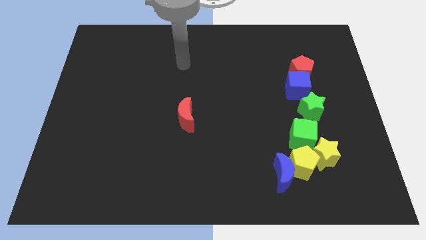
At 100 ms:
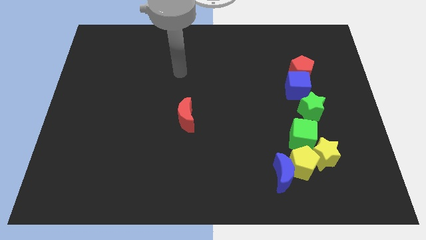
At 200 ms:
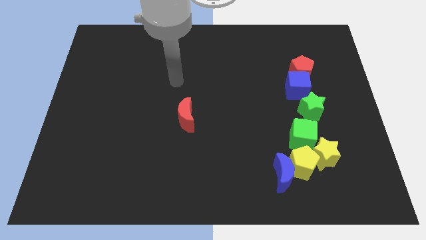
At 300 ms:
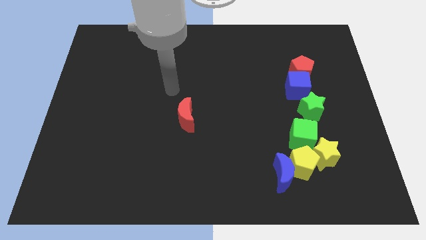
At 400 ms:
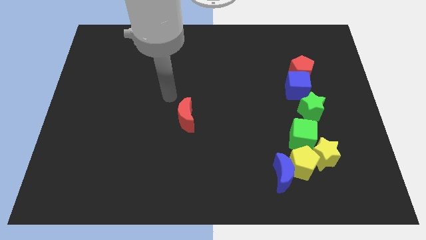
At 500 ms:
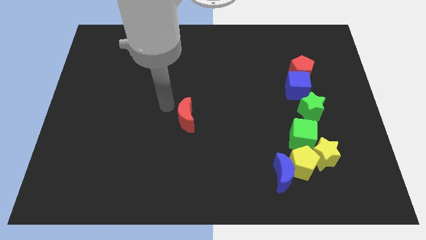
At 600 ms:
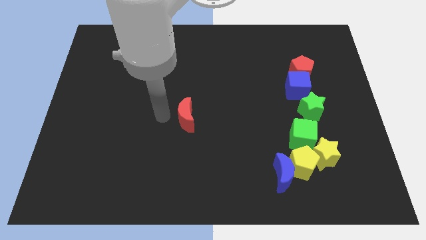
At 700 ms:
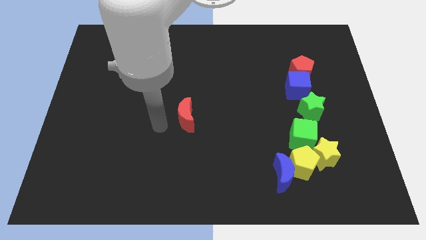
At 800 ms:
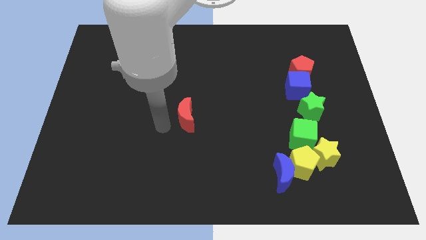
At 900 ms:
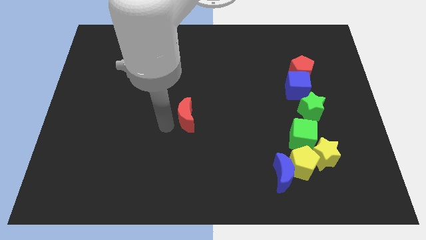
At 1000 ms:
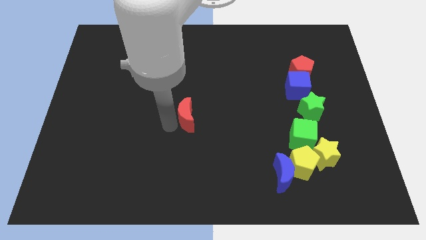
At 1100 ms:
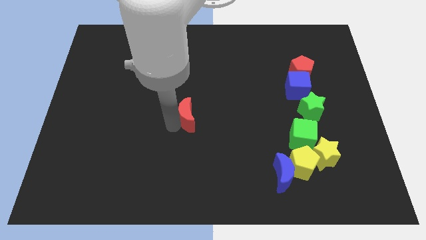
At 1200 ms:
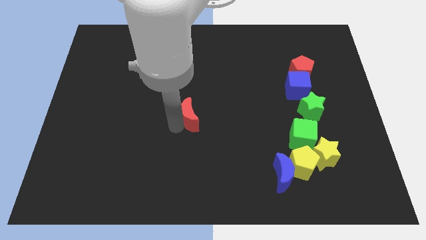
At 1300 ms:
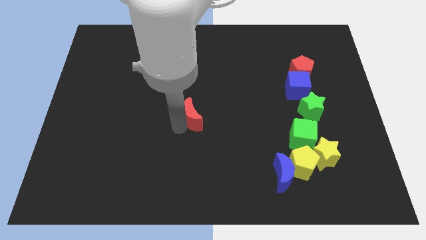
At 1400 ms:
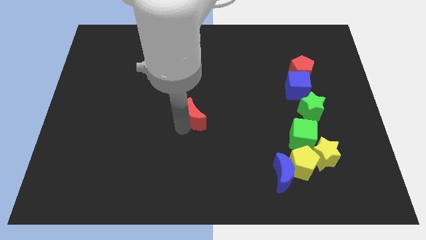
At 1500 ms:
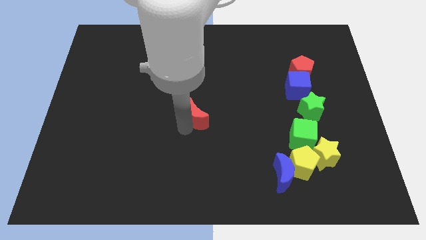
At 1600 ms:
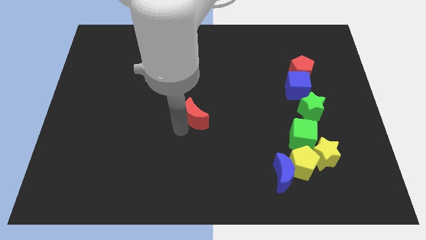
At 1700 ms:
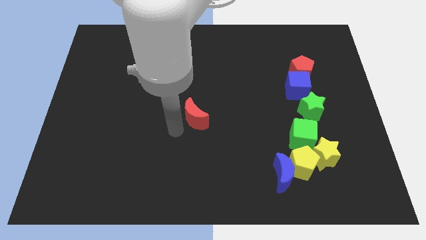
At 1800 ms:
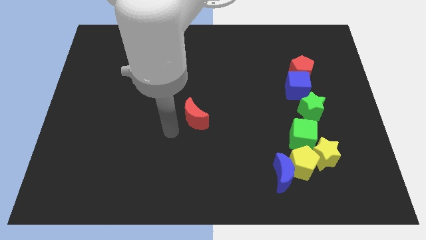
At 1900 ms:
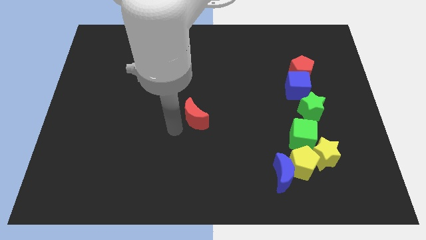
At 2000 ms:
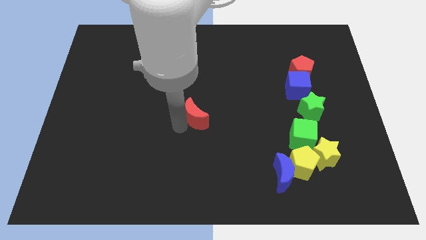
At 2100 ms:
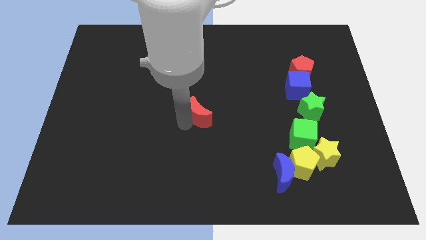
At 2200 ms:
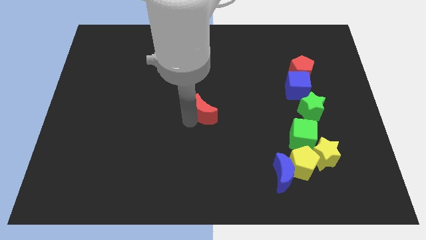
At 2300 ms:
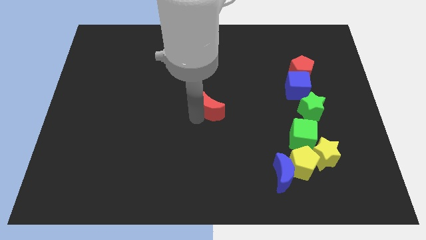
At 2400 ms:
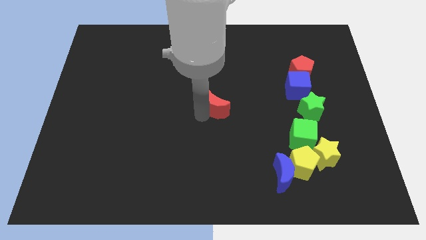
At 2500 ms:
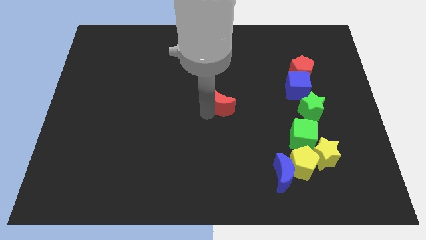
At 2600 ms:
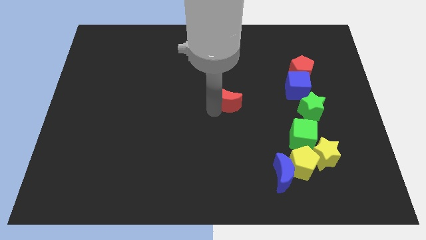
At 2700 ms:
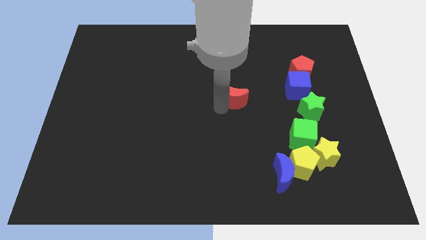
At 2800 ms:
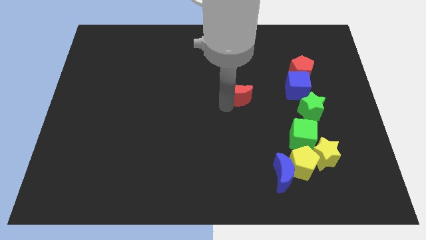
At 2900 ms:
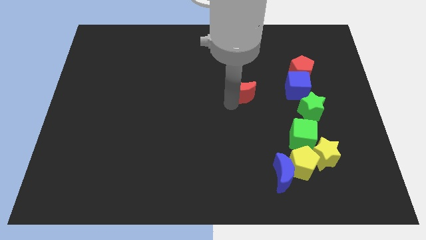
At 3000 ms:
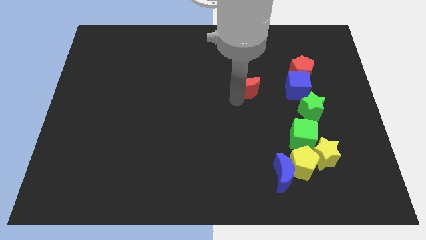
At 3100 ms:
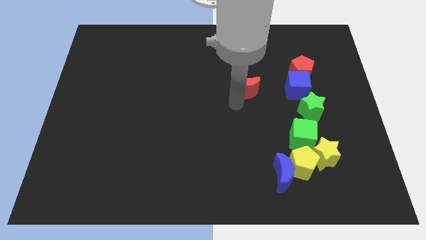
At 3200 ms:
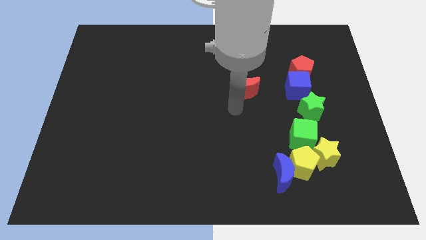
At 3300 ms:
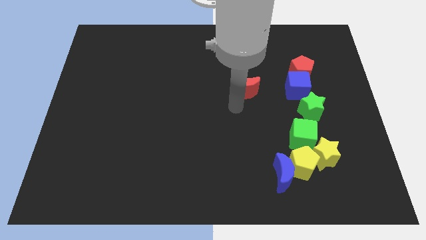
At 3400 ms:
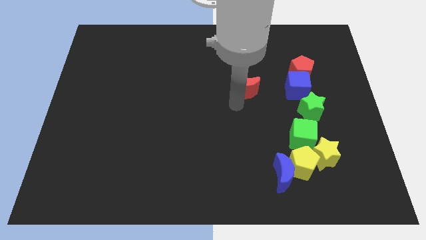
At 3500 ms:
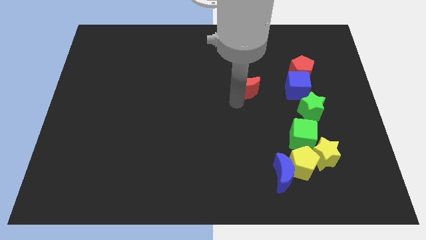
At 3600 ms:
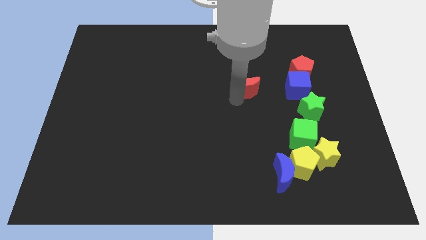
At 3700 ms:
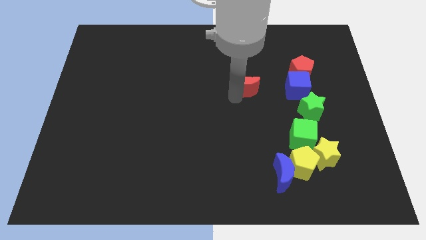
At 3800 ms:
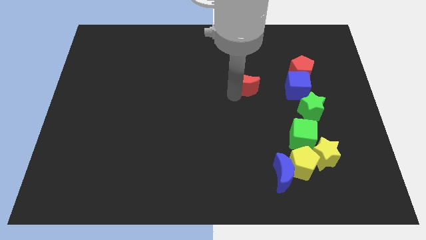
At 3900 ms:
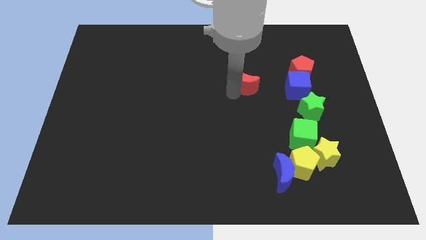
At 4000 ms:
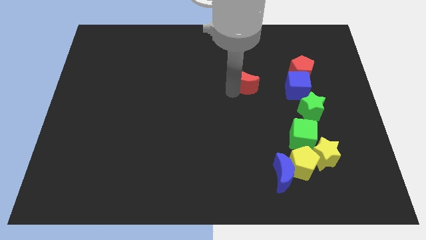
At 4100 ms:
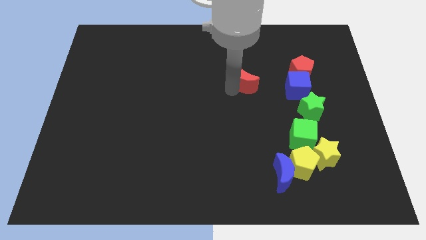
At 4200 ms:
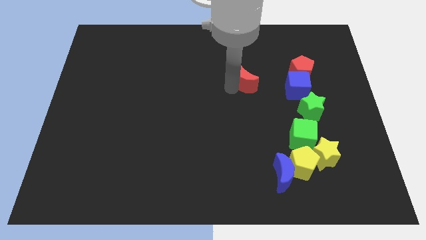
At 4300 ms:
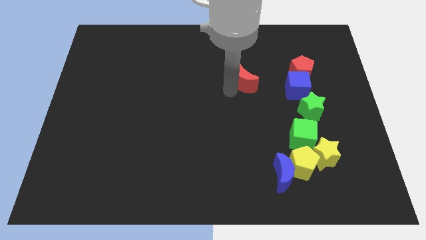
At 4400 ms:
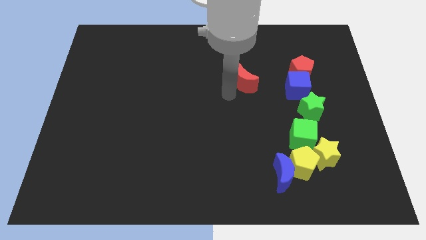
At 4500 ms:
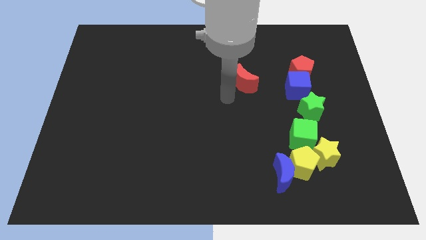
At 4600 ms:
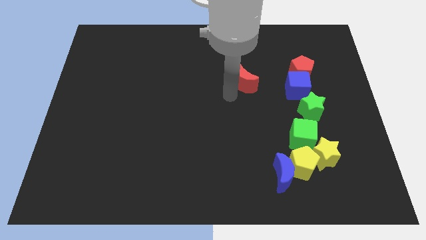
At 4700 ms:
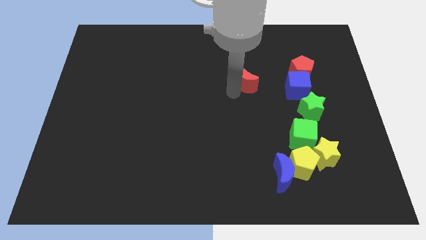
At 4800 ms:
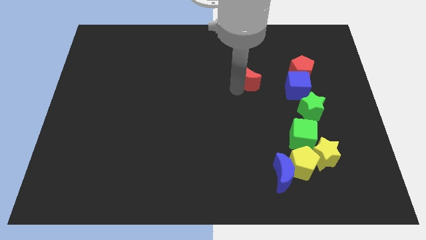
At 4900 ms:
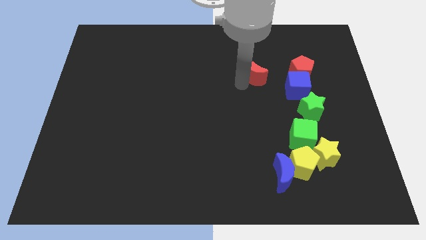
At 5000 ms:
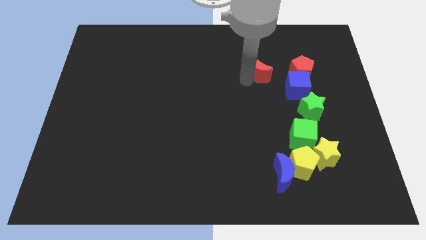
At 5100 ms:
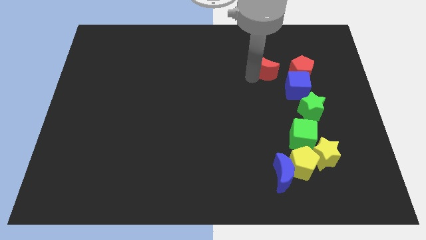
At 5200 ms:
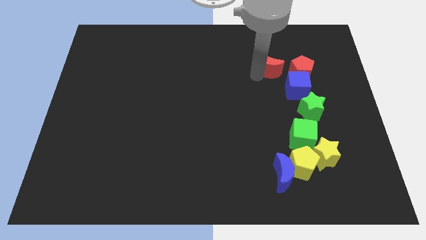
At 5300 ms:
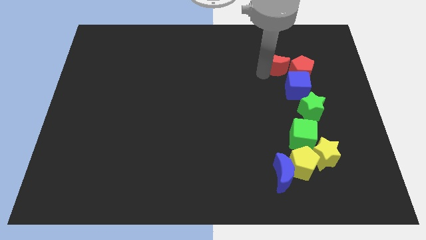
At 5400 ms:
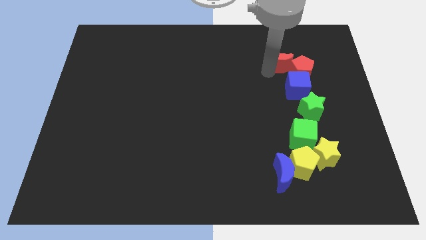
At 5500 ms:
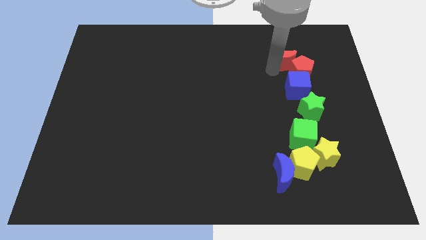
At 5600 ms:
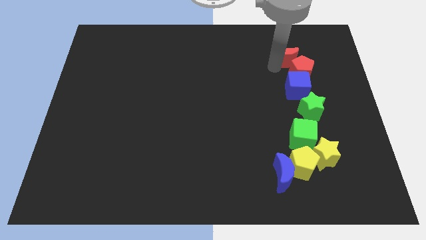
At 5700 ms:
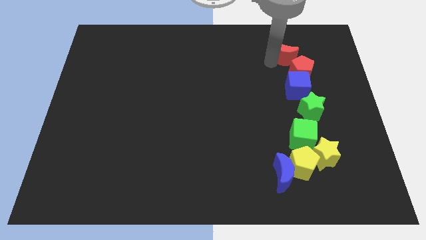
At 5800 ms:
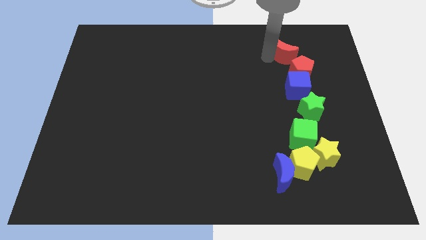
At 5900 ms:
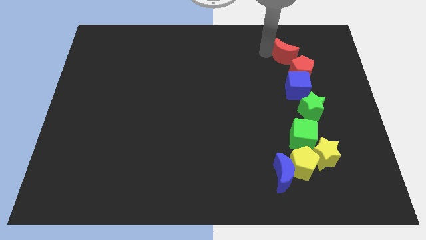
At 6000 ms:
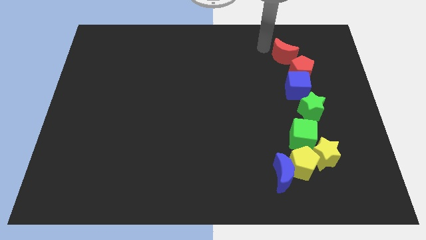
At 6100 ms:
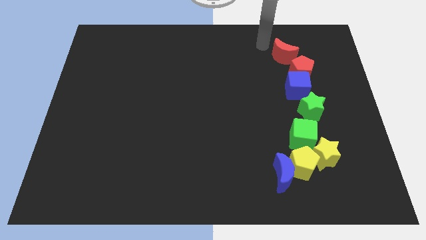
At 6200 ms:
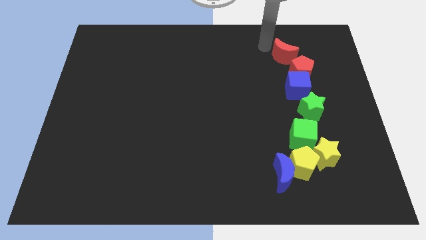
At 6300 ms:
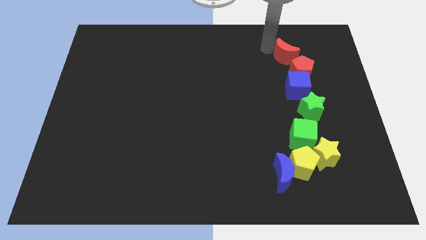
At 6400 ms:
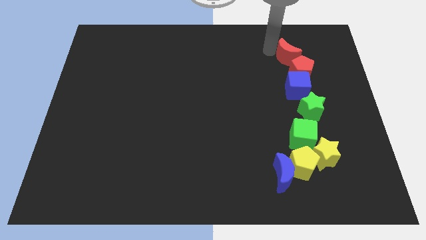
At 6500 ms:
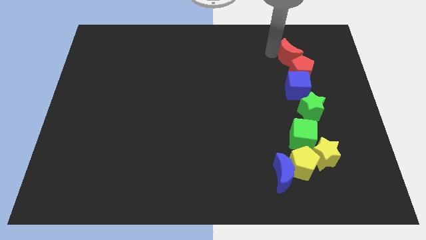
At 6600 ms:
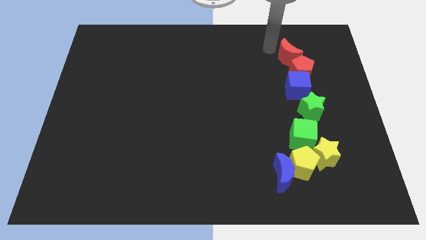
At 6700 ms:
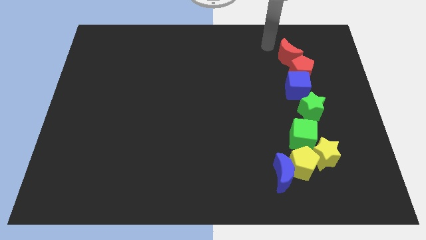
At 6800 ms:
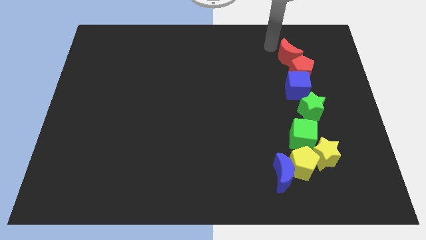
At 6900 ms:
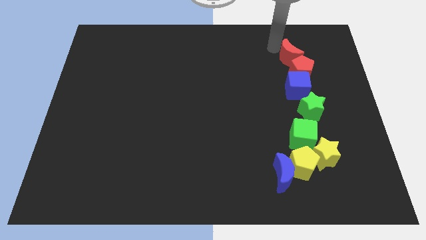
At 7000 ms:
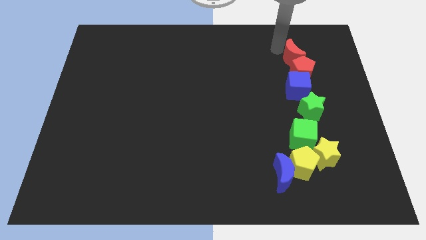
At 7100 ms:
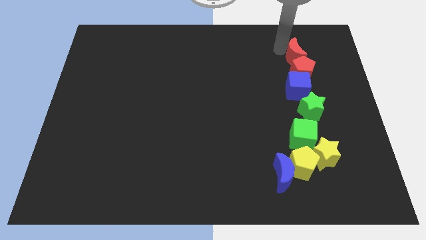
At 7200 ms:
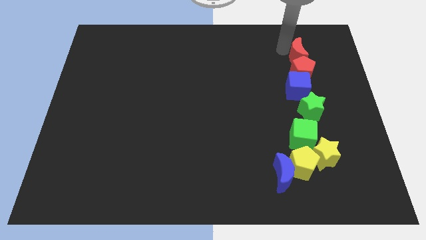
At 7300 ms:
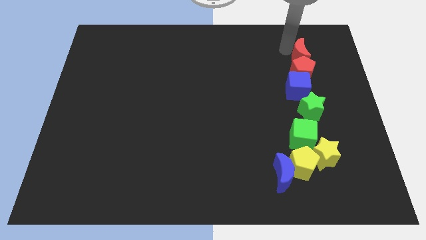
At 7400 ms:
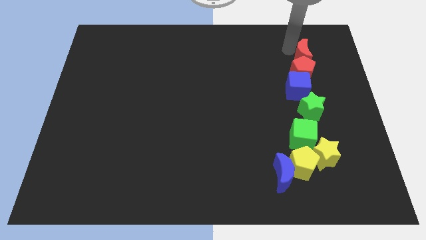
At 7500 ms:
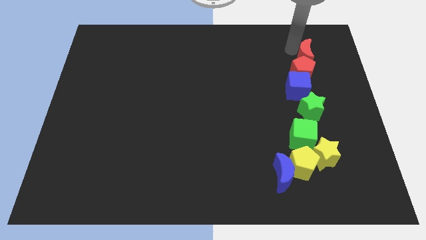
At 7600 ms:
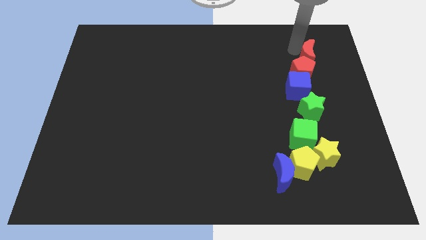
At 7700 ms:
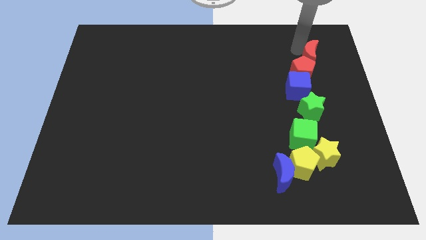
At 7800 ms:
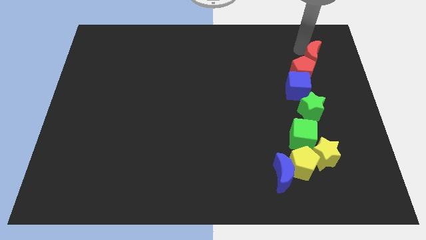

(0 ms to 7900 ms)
slide the red moon to the top right of the blue cube
